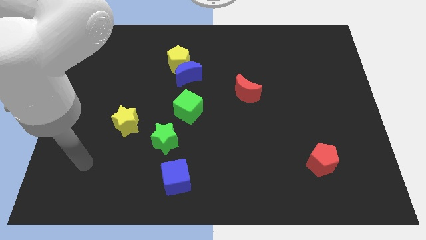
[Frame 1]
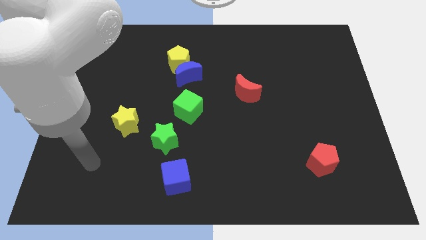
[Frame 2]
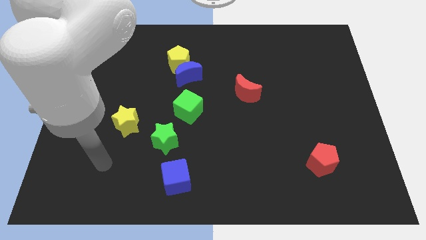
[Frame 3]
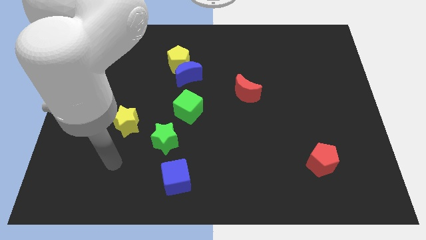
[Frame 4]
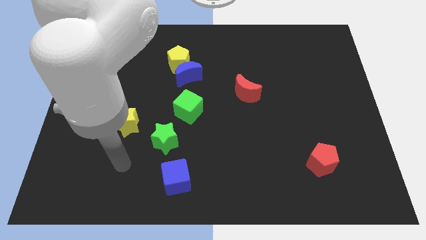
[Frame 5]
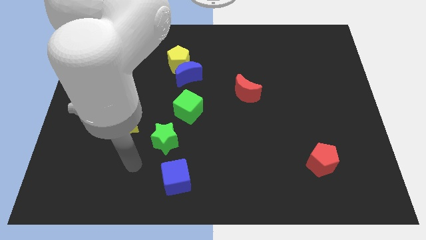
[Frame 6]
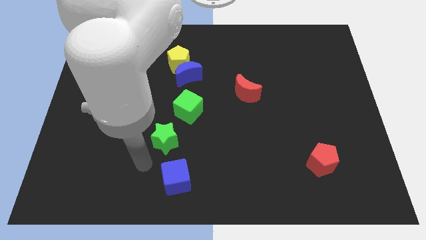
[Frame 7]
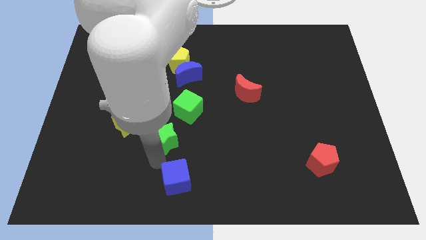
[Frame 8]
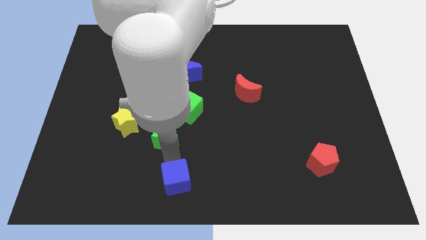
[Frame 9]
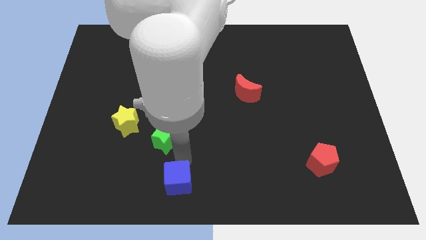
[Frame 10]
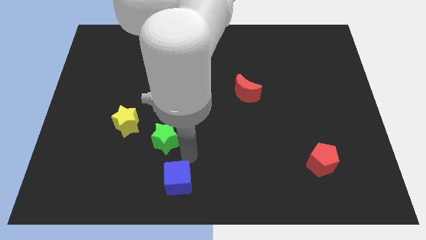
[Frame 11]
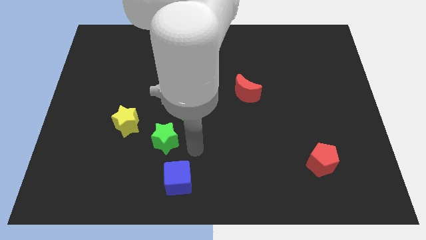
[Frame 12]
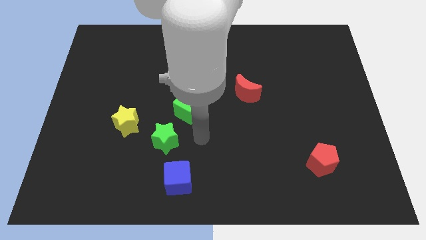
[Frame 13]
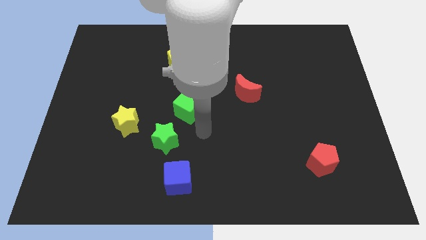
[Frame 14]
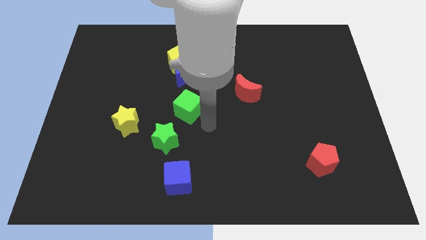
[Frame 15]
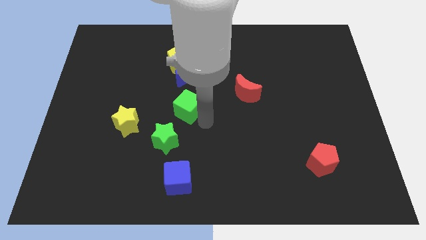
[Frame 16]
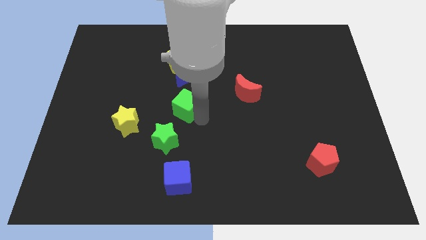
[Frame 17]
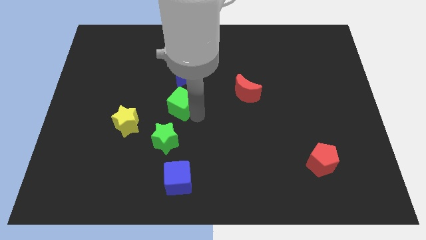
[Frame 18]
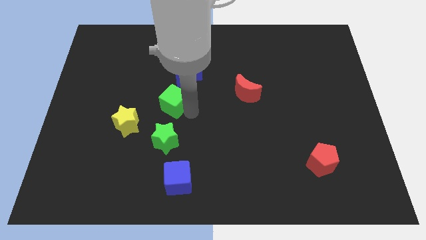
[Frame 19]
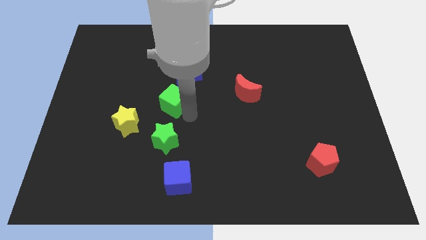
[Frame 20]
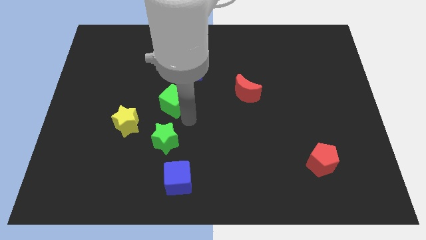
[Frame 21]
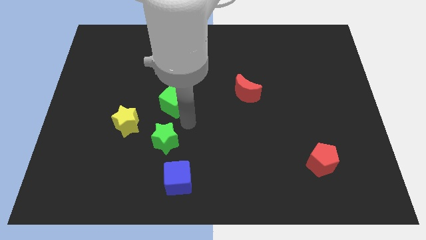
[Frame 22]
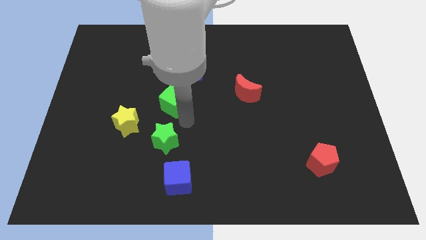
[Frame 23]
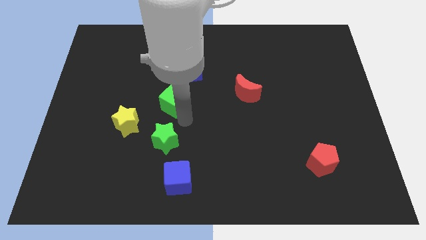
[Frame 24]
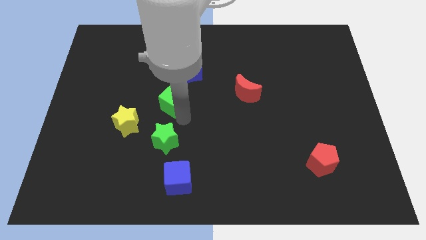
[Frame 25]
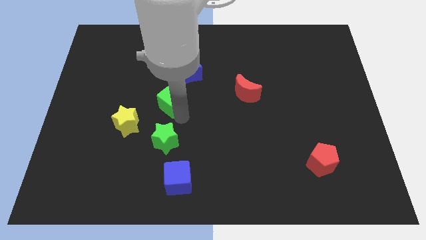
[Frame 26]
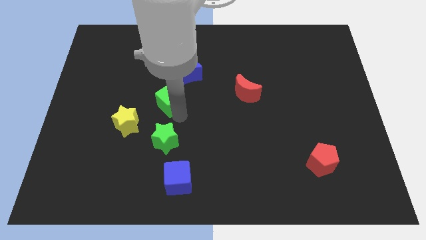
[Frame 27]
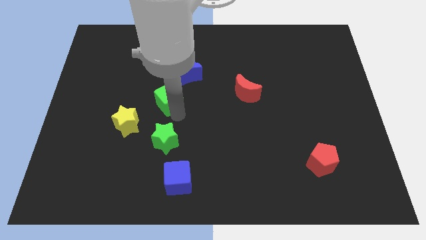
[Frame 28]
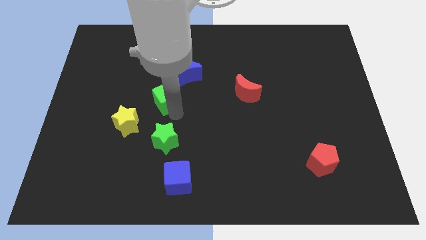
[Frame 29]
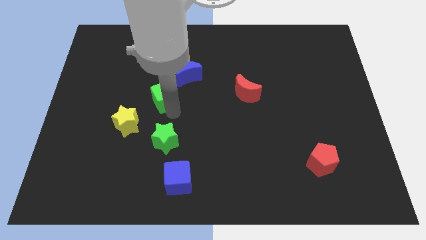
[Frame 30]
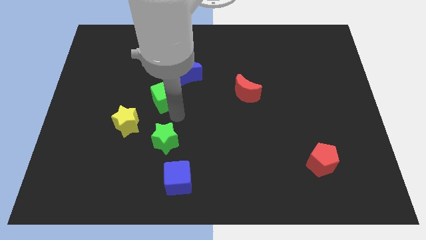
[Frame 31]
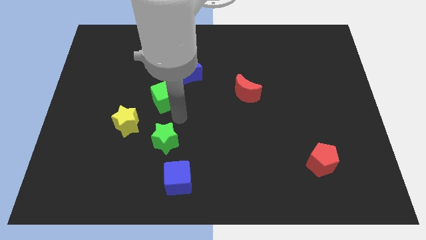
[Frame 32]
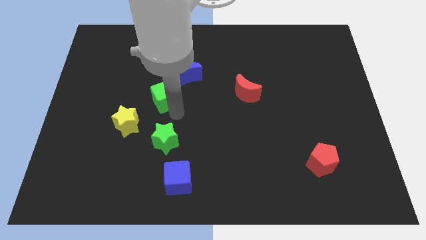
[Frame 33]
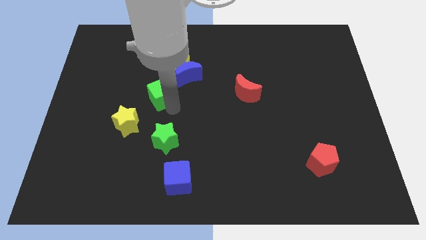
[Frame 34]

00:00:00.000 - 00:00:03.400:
push the green cube a bit upwards and left diagonally

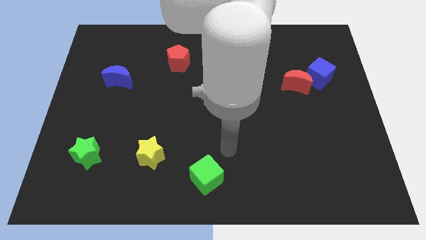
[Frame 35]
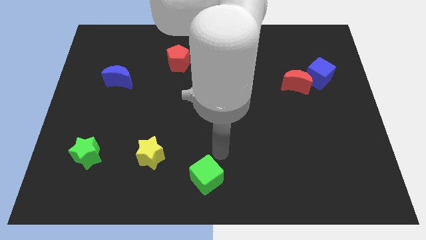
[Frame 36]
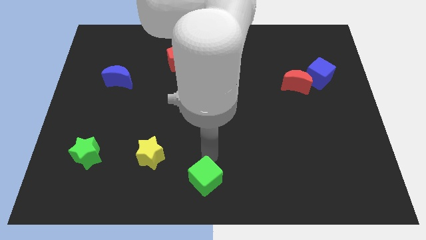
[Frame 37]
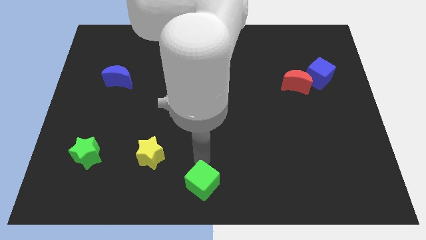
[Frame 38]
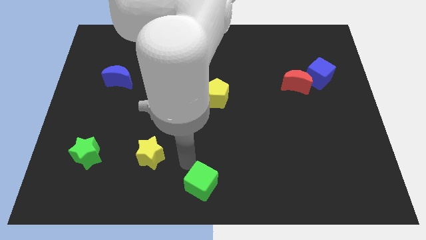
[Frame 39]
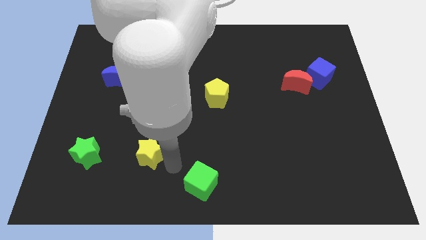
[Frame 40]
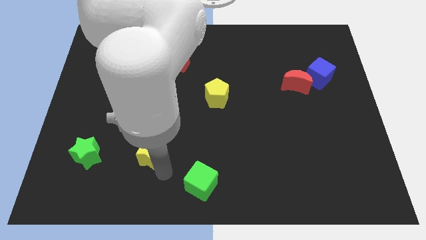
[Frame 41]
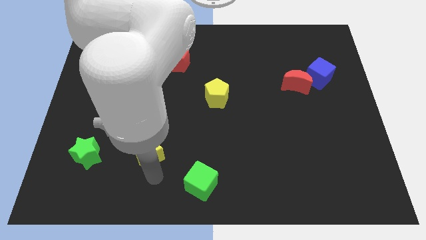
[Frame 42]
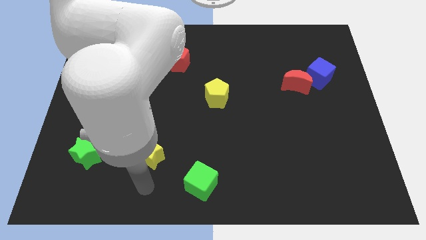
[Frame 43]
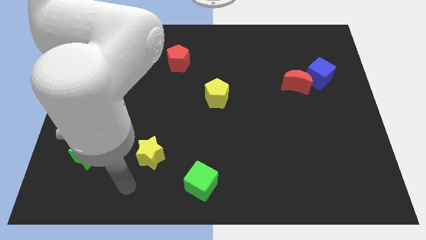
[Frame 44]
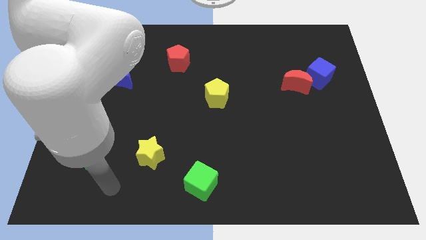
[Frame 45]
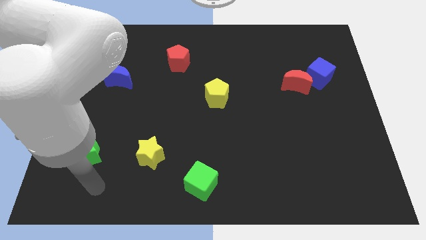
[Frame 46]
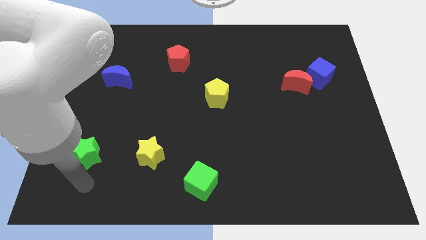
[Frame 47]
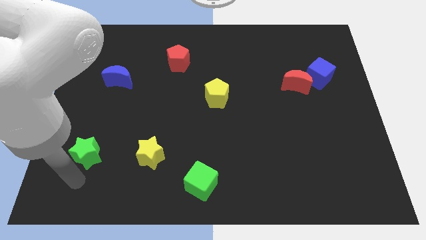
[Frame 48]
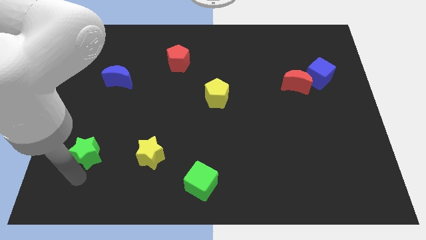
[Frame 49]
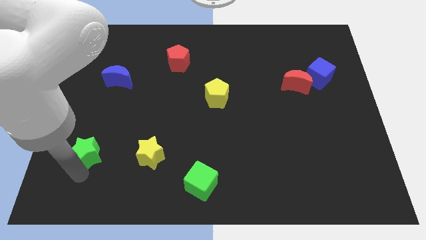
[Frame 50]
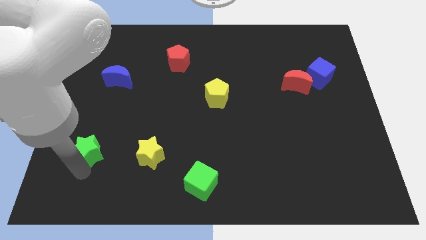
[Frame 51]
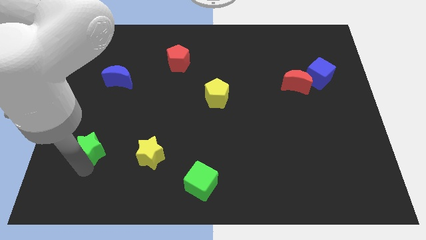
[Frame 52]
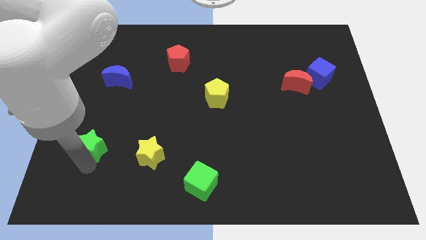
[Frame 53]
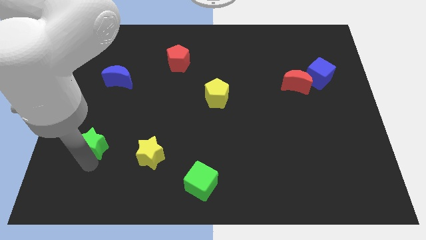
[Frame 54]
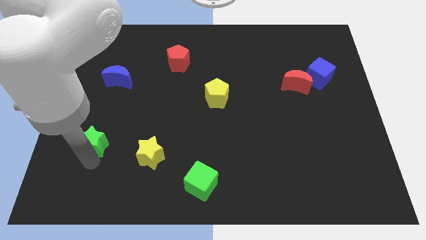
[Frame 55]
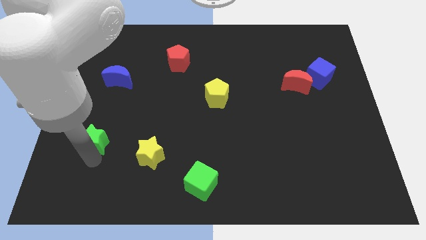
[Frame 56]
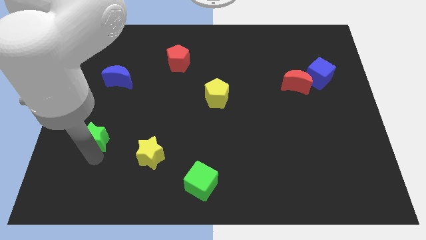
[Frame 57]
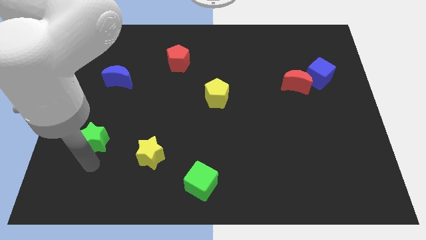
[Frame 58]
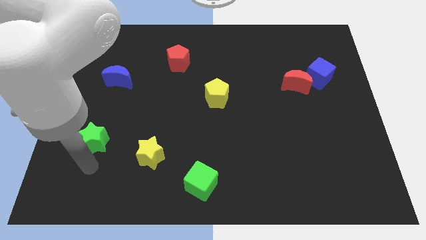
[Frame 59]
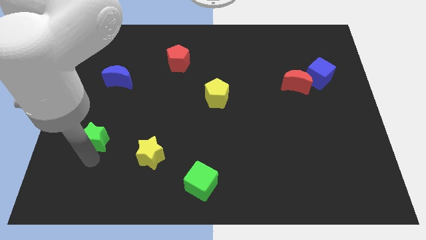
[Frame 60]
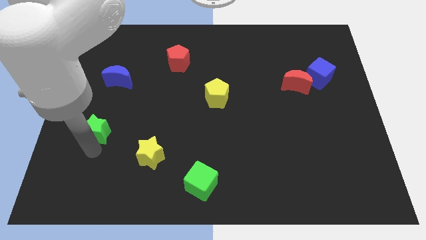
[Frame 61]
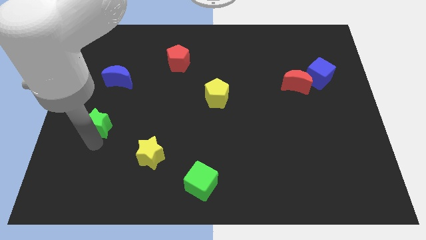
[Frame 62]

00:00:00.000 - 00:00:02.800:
push the green star upwards slightly

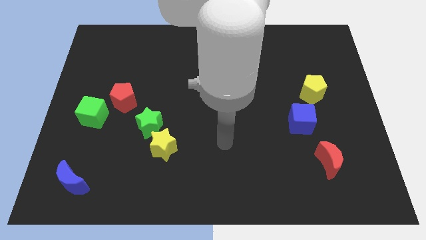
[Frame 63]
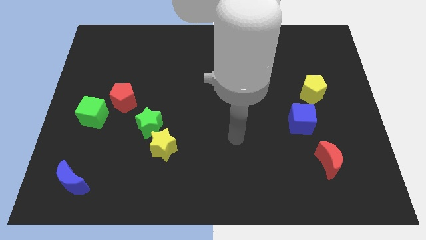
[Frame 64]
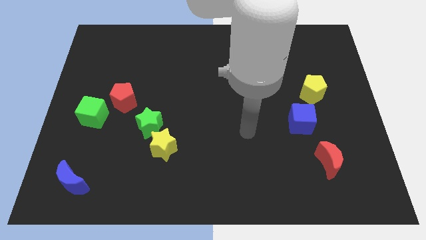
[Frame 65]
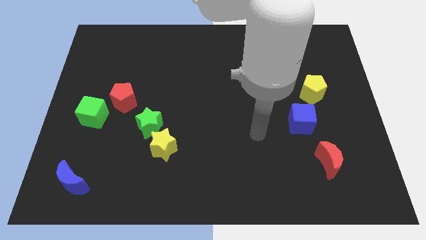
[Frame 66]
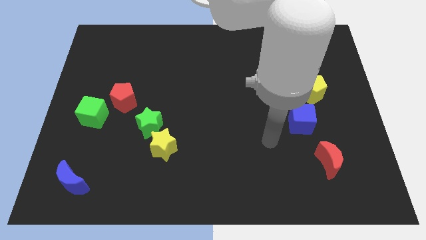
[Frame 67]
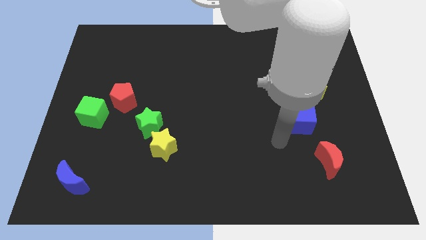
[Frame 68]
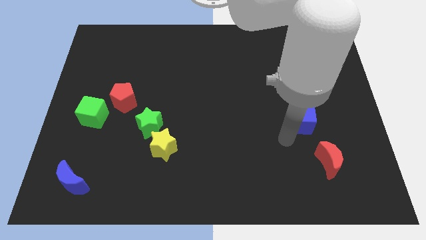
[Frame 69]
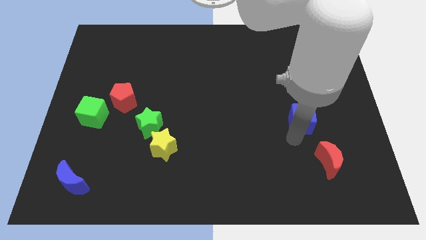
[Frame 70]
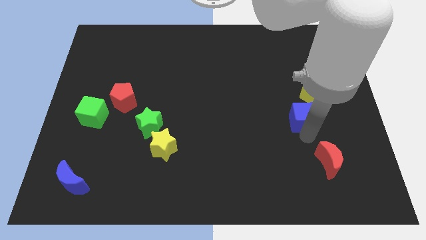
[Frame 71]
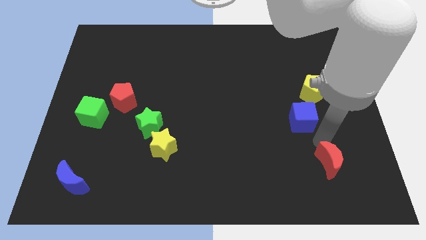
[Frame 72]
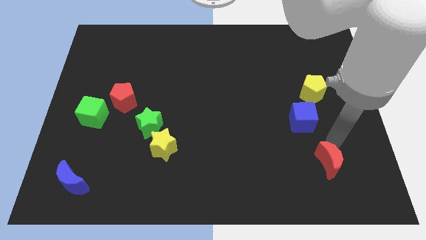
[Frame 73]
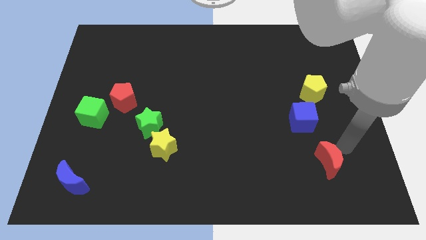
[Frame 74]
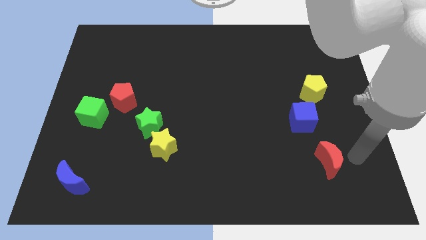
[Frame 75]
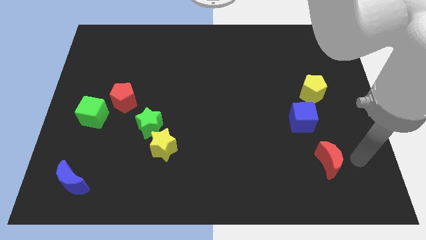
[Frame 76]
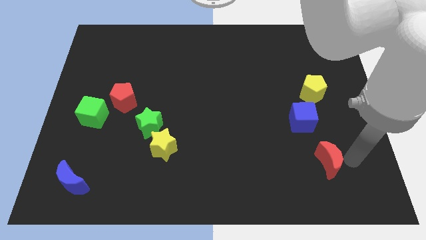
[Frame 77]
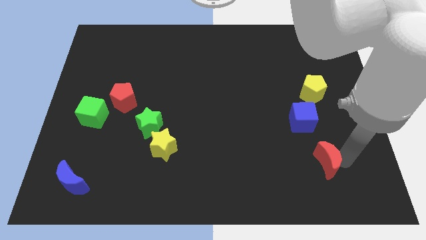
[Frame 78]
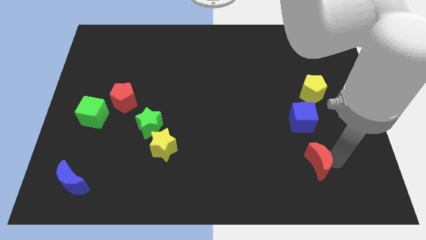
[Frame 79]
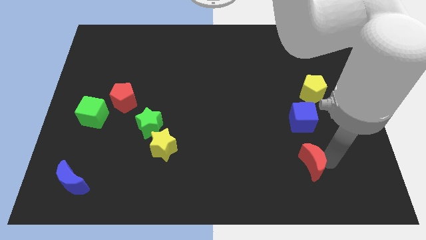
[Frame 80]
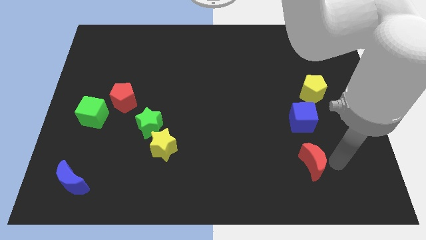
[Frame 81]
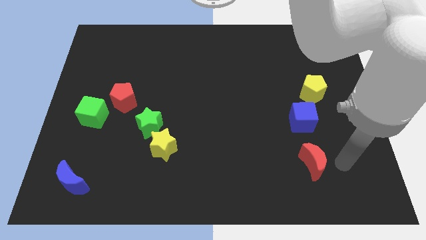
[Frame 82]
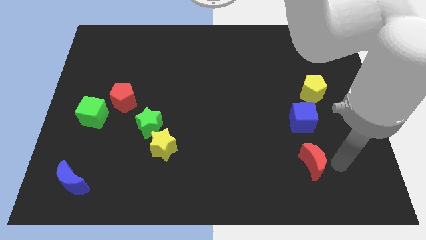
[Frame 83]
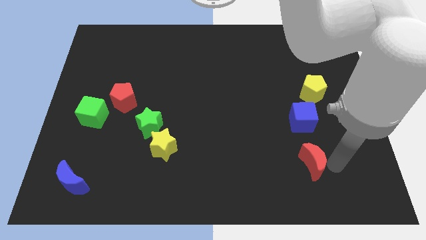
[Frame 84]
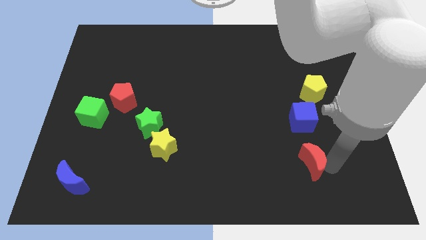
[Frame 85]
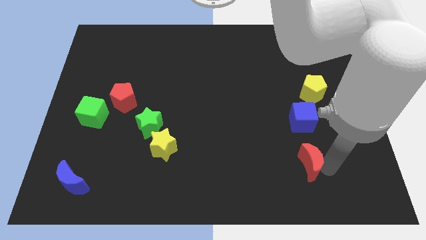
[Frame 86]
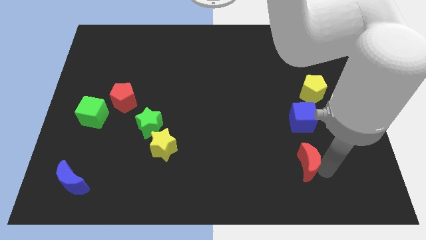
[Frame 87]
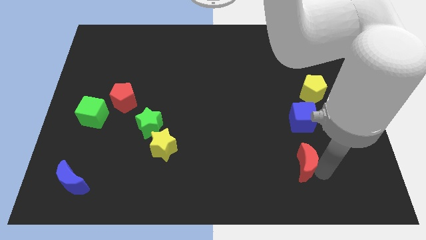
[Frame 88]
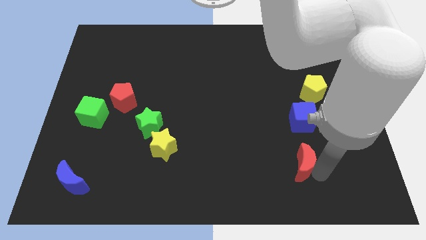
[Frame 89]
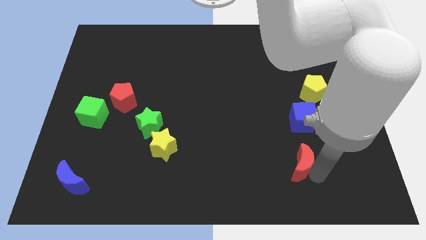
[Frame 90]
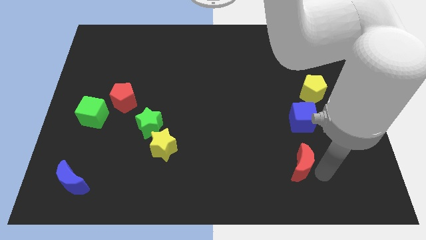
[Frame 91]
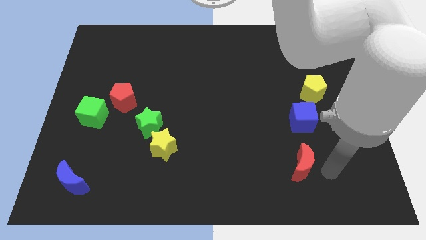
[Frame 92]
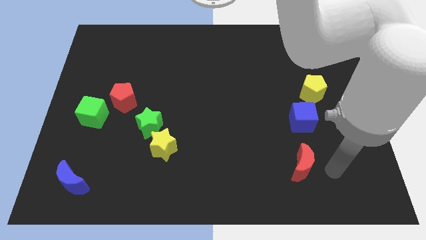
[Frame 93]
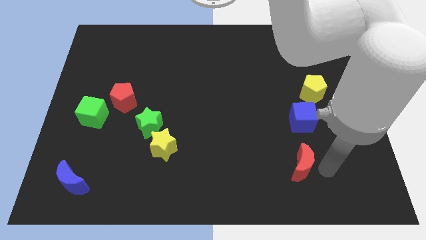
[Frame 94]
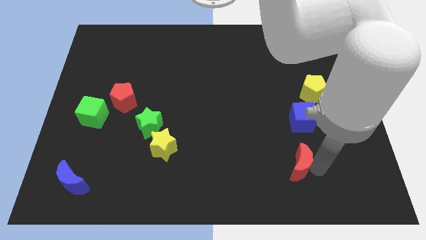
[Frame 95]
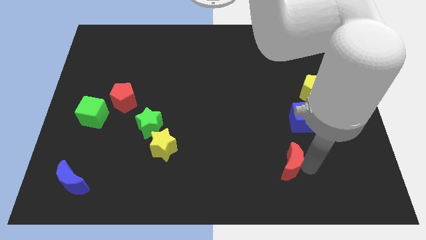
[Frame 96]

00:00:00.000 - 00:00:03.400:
slightly move the red moon left
